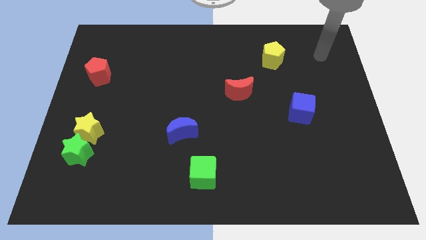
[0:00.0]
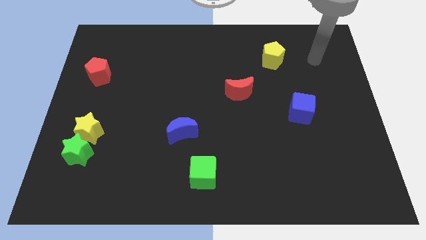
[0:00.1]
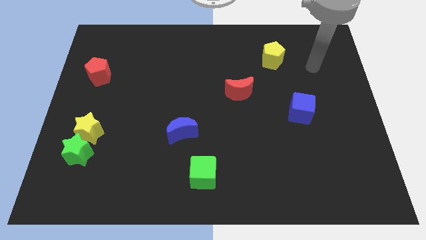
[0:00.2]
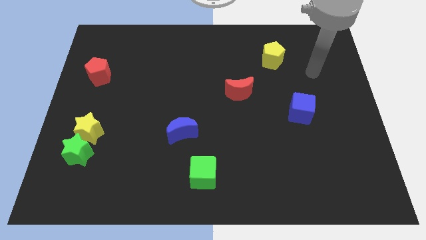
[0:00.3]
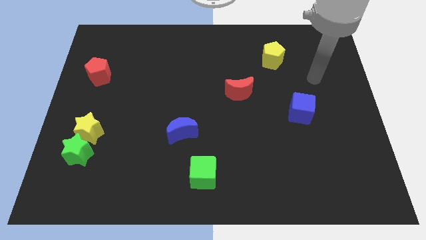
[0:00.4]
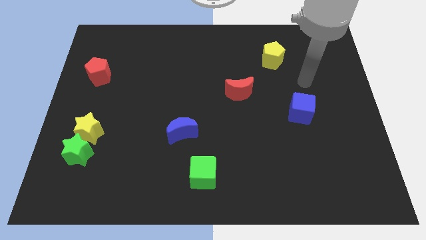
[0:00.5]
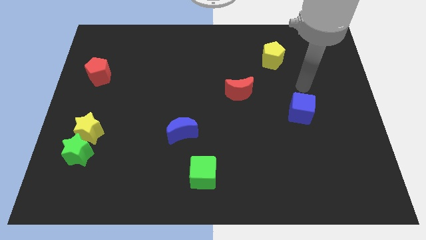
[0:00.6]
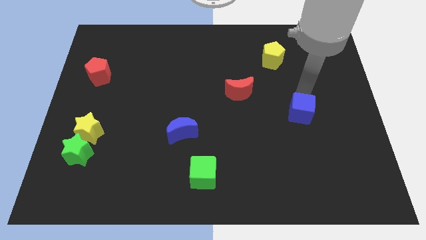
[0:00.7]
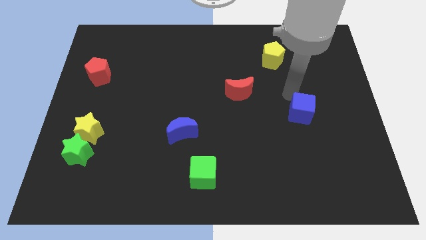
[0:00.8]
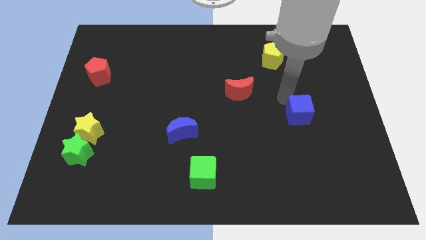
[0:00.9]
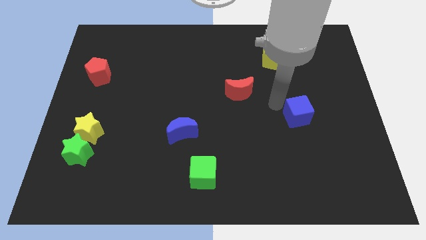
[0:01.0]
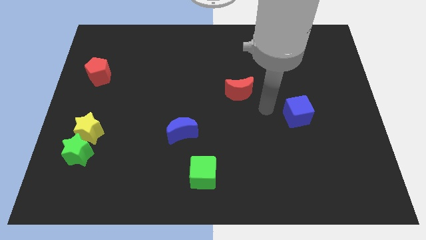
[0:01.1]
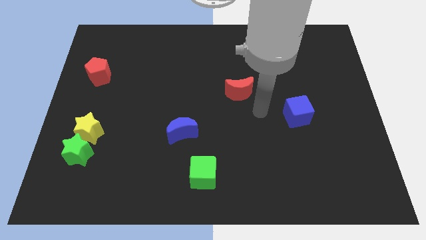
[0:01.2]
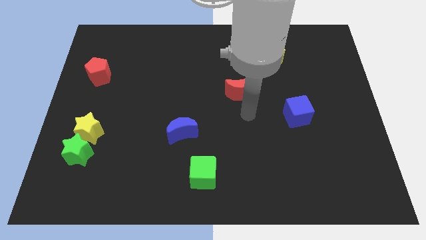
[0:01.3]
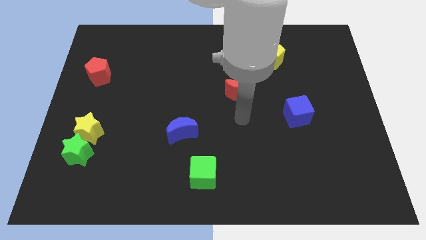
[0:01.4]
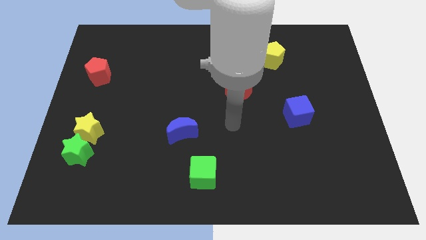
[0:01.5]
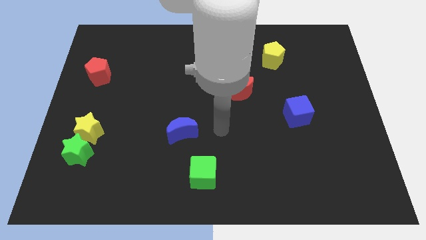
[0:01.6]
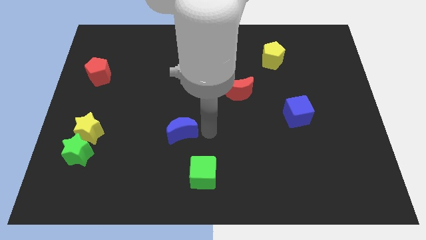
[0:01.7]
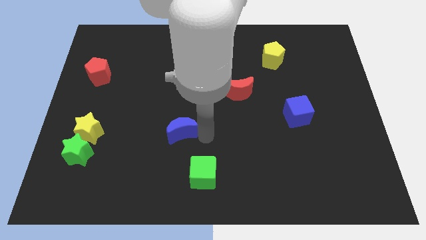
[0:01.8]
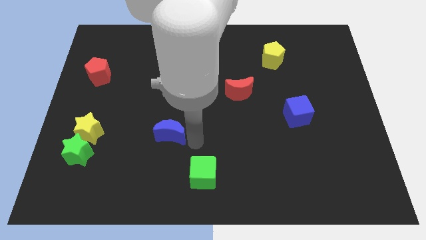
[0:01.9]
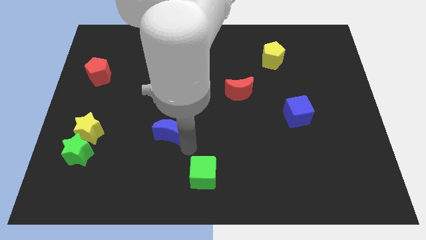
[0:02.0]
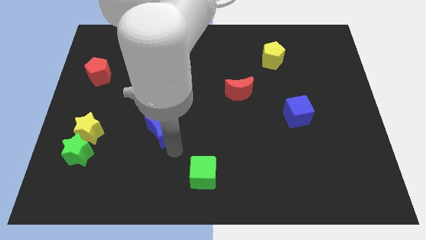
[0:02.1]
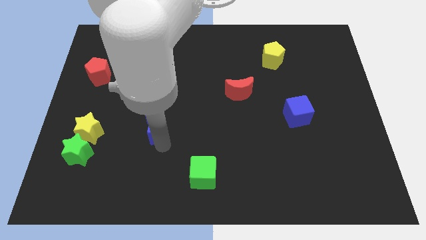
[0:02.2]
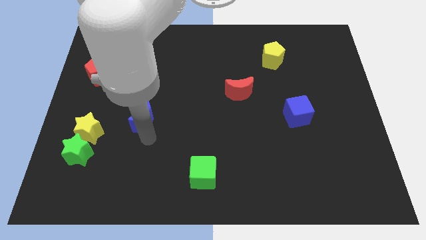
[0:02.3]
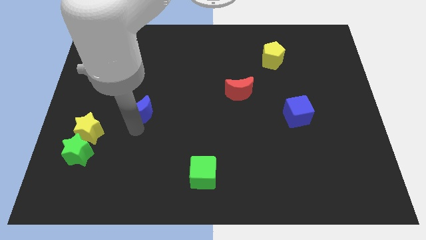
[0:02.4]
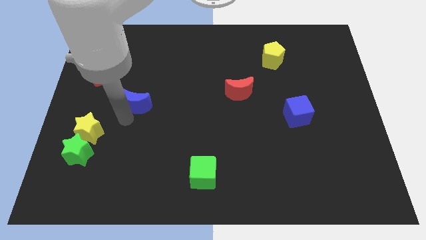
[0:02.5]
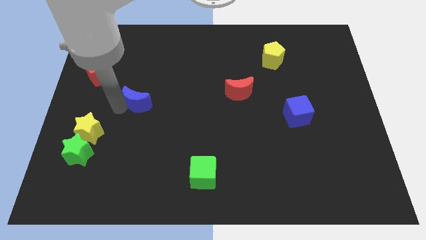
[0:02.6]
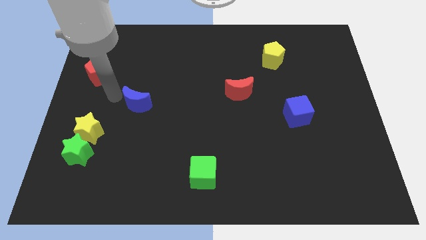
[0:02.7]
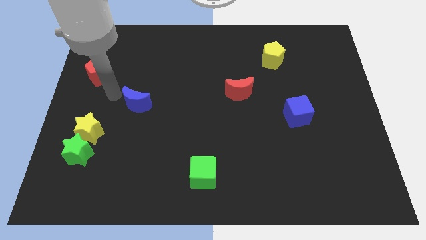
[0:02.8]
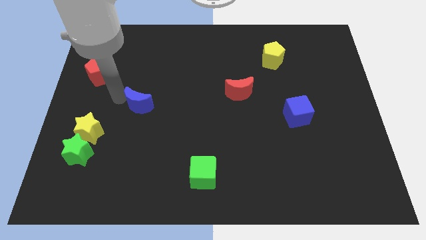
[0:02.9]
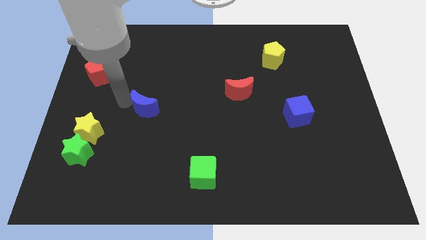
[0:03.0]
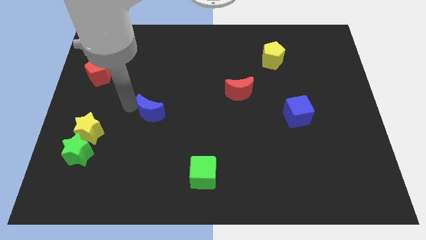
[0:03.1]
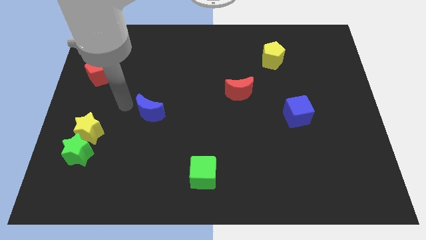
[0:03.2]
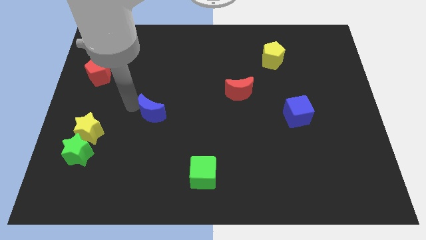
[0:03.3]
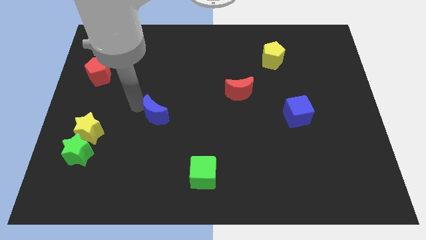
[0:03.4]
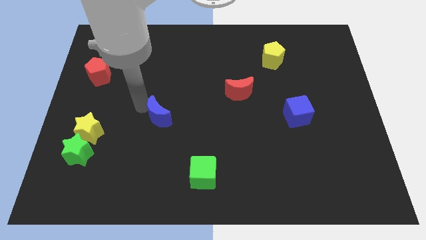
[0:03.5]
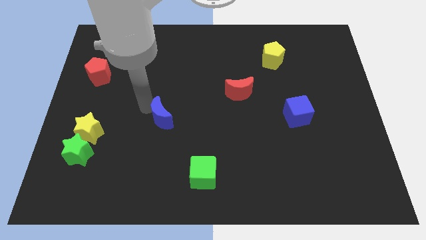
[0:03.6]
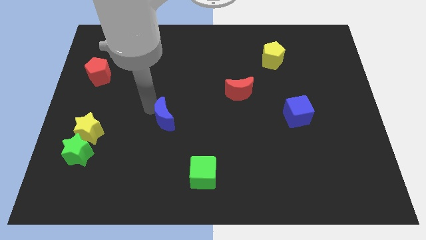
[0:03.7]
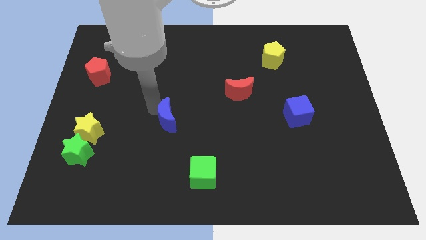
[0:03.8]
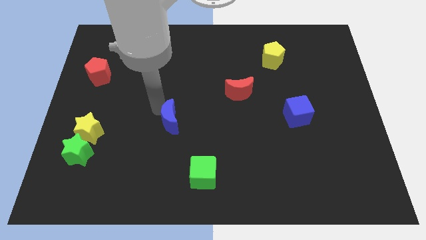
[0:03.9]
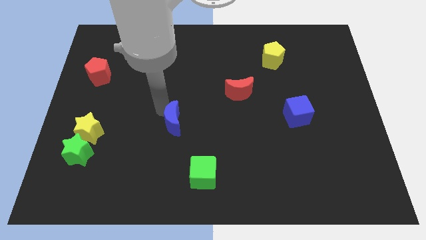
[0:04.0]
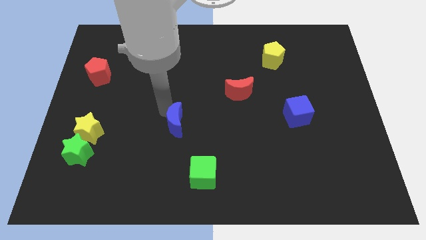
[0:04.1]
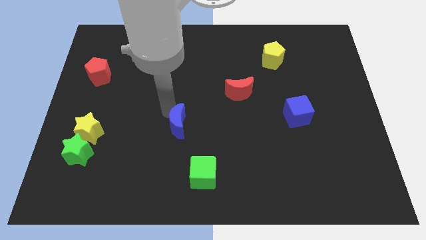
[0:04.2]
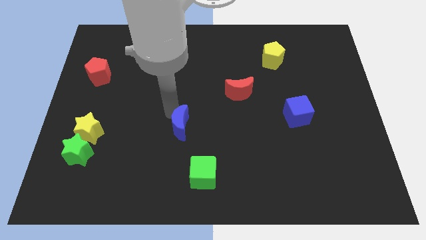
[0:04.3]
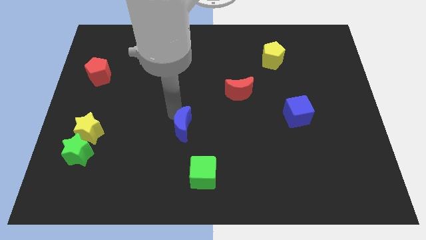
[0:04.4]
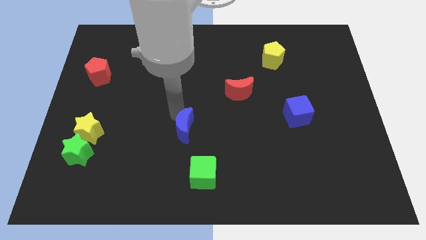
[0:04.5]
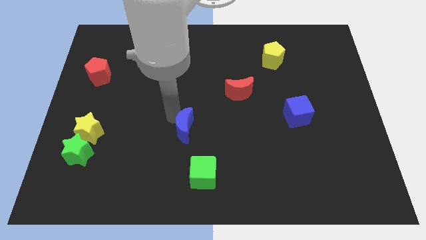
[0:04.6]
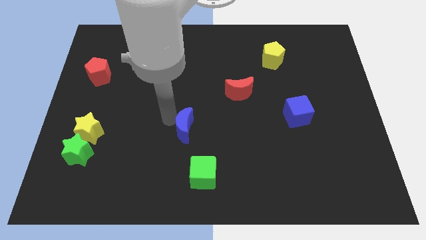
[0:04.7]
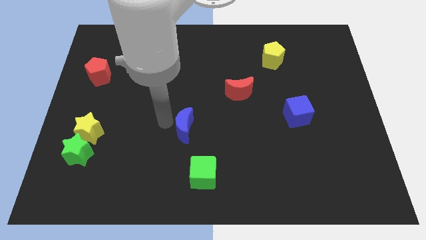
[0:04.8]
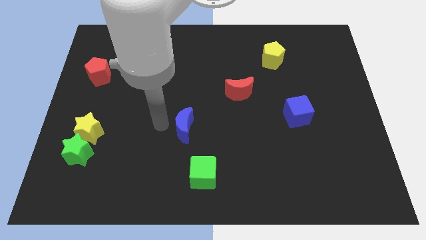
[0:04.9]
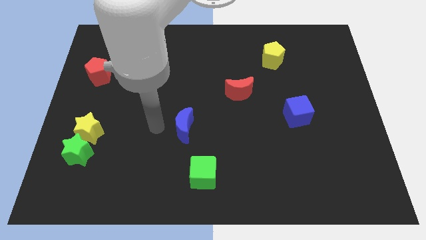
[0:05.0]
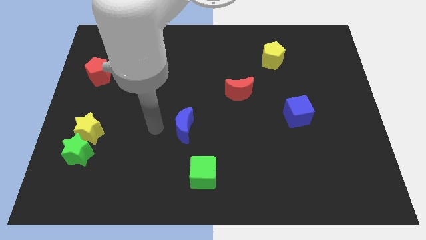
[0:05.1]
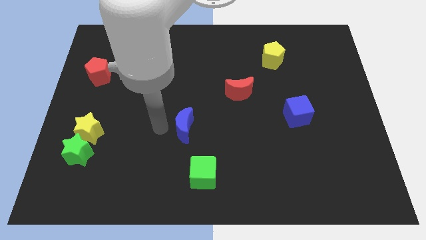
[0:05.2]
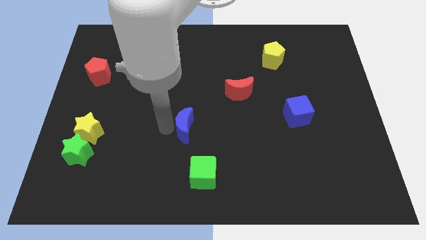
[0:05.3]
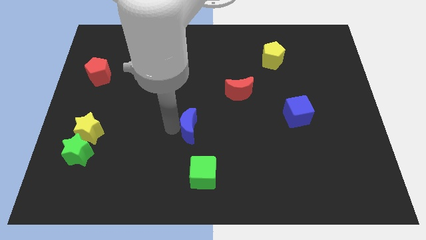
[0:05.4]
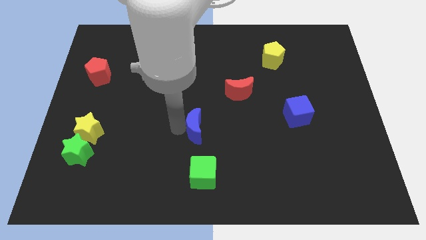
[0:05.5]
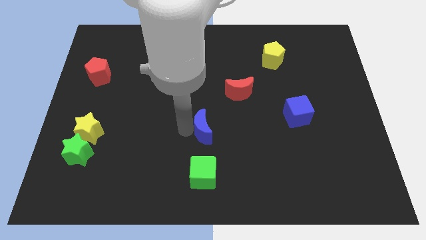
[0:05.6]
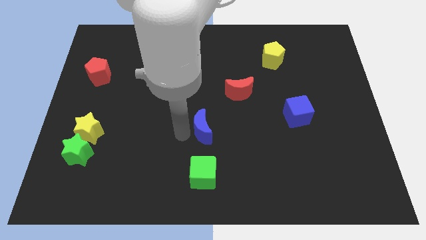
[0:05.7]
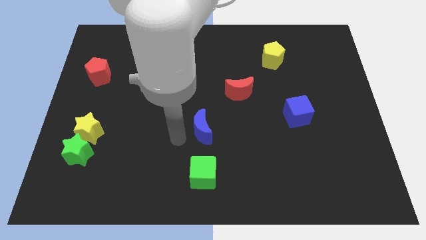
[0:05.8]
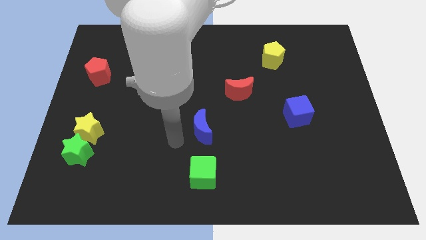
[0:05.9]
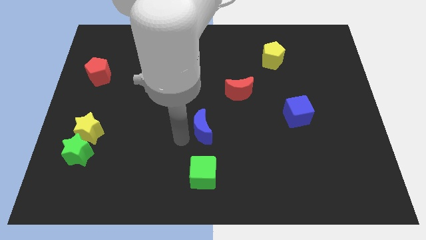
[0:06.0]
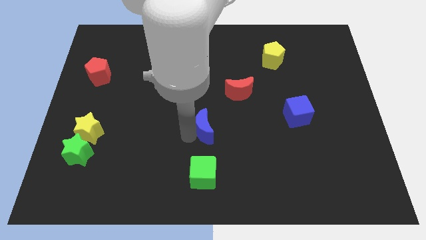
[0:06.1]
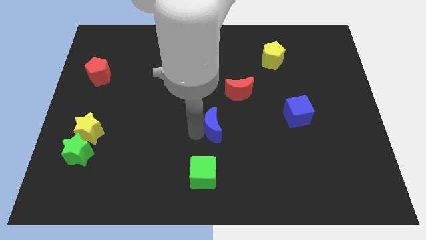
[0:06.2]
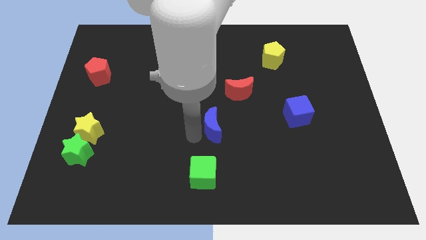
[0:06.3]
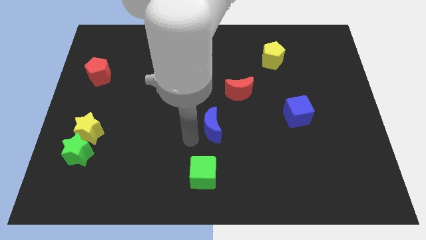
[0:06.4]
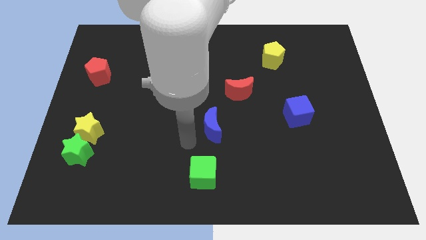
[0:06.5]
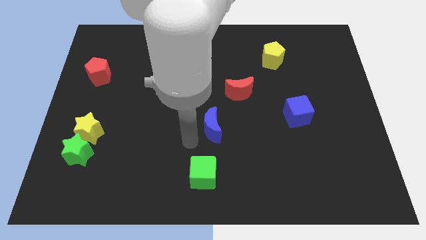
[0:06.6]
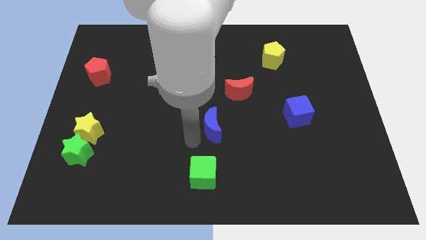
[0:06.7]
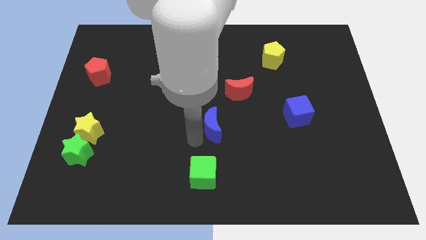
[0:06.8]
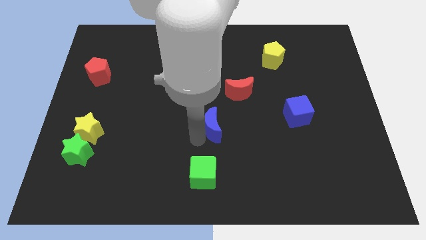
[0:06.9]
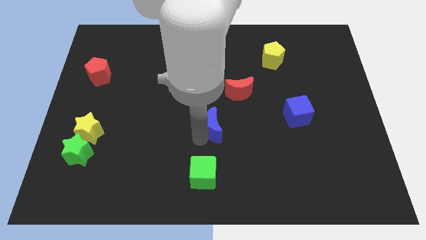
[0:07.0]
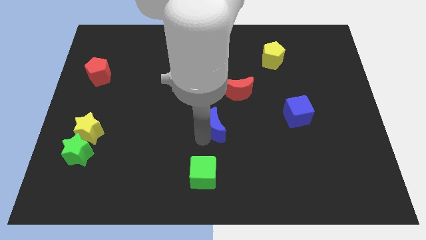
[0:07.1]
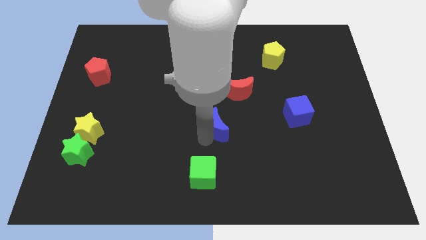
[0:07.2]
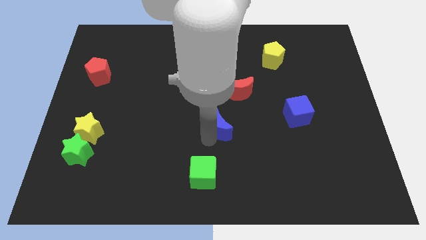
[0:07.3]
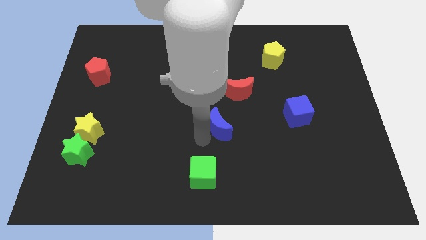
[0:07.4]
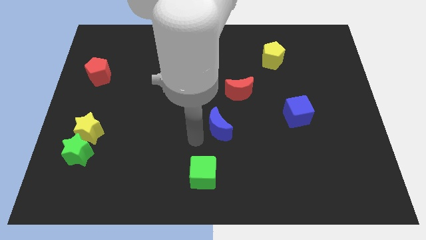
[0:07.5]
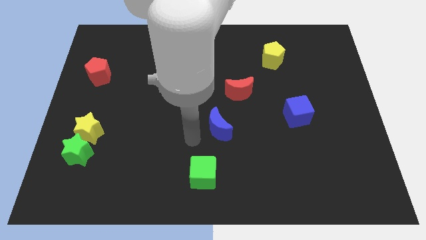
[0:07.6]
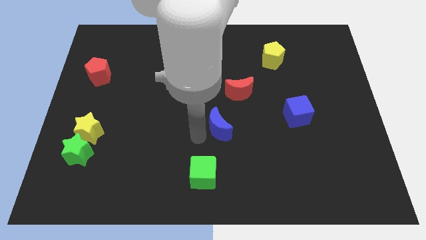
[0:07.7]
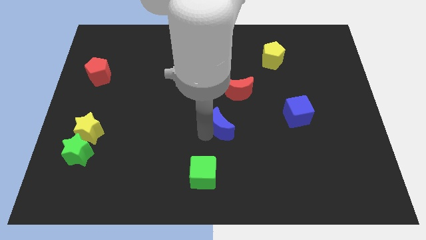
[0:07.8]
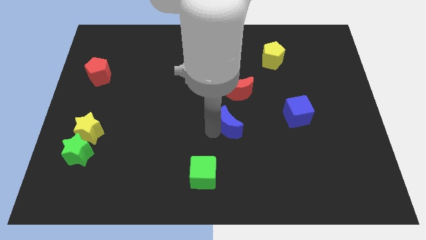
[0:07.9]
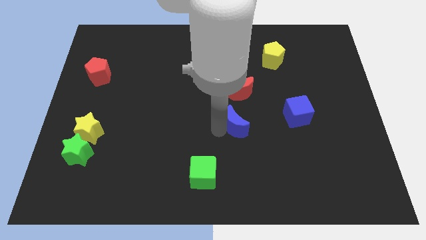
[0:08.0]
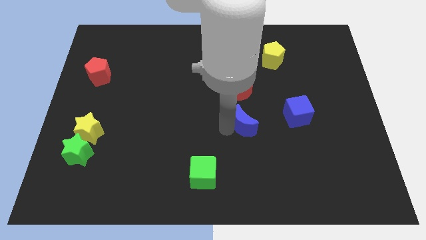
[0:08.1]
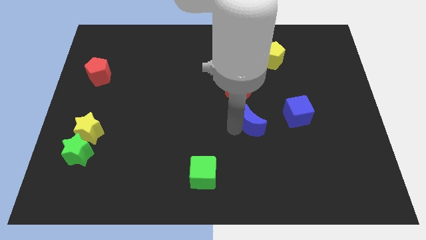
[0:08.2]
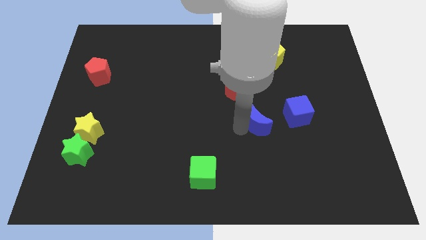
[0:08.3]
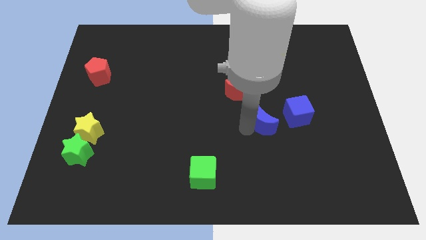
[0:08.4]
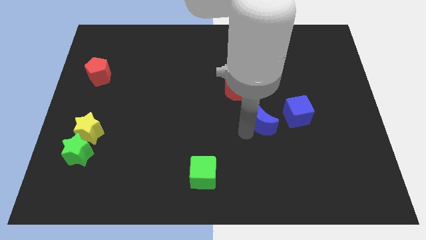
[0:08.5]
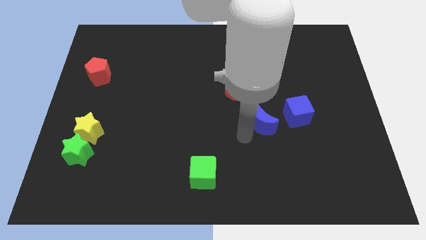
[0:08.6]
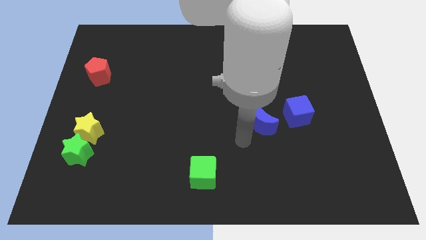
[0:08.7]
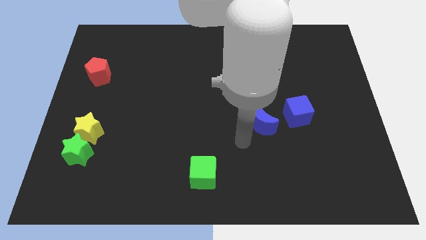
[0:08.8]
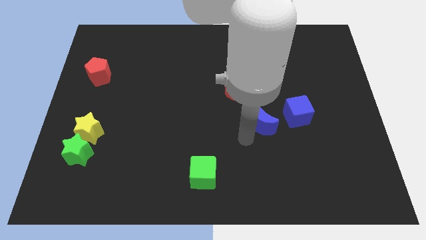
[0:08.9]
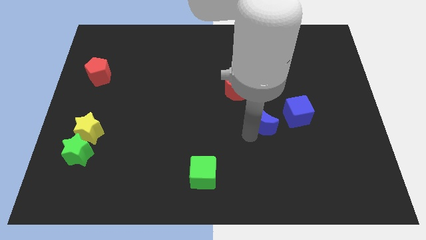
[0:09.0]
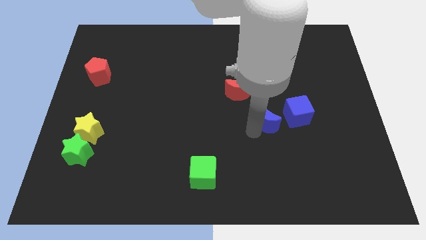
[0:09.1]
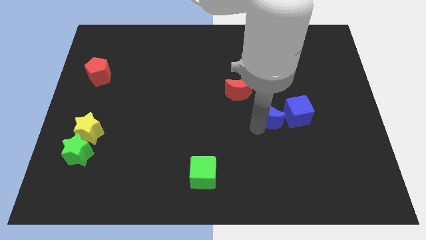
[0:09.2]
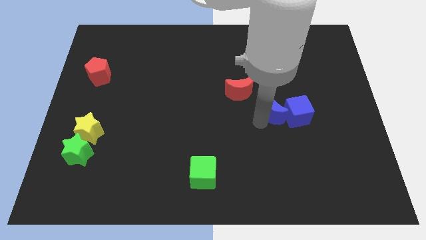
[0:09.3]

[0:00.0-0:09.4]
slide the blue moon close to the blue cube
